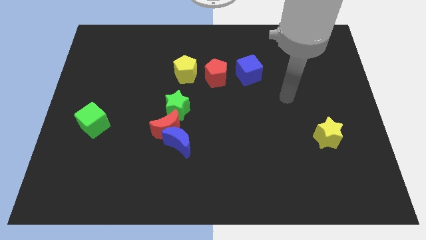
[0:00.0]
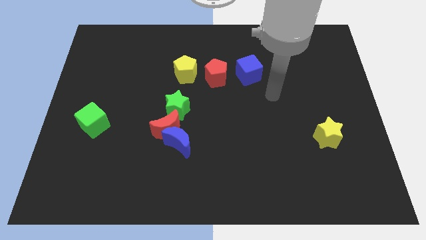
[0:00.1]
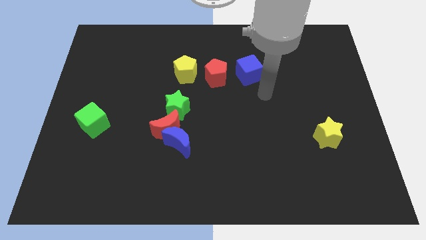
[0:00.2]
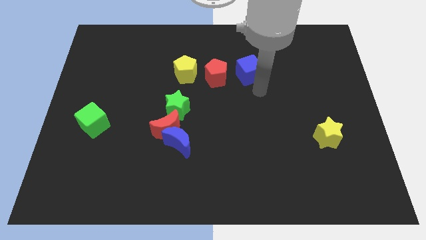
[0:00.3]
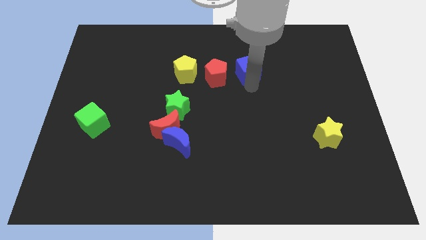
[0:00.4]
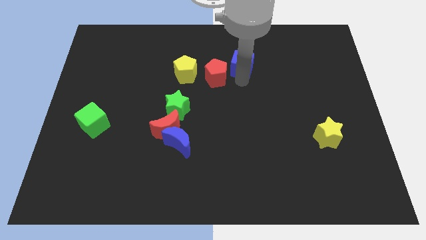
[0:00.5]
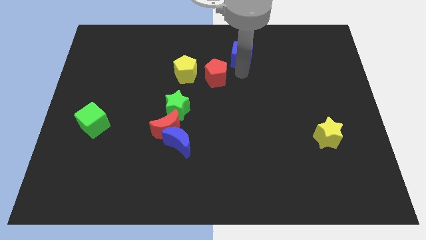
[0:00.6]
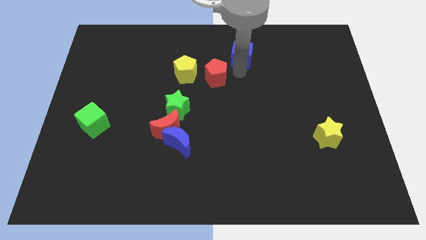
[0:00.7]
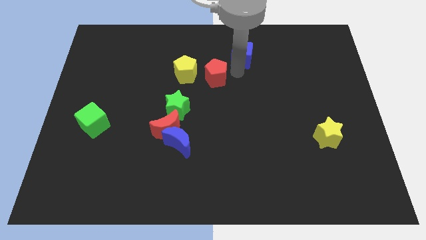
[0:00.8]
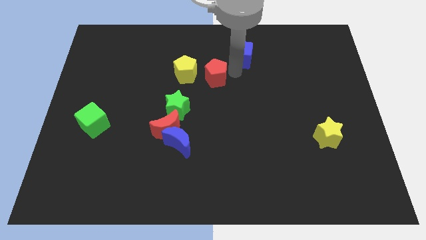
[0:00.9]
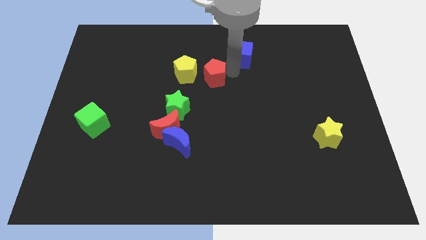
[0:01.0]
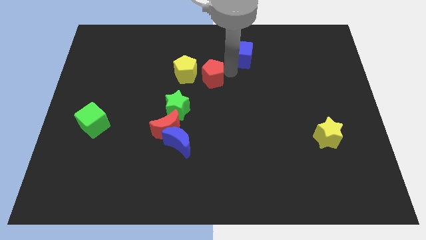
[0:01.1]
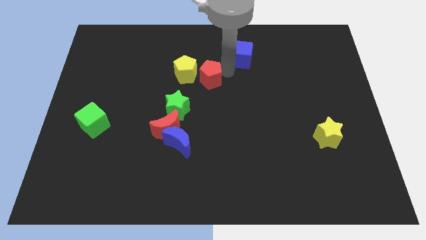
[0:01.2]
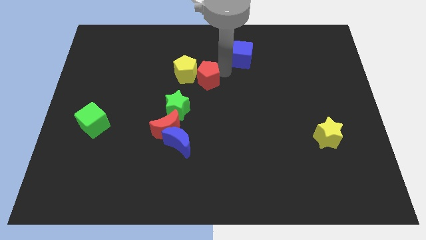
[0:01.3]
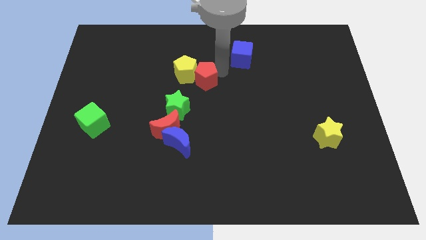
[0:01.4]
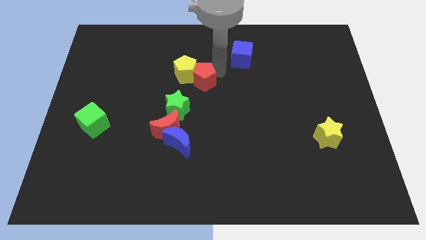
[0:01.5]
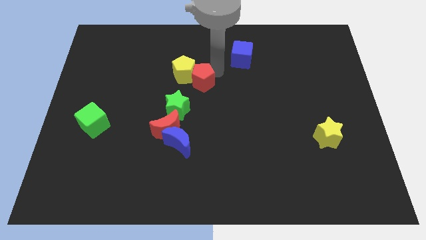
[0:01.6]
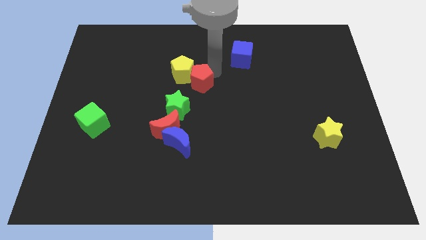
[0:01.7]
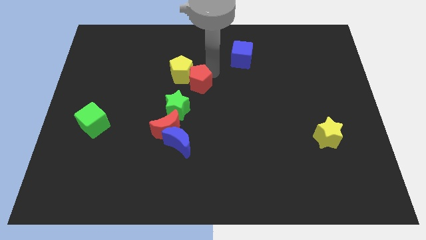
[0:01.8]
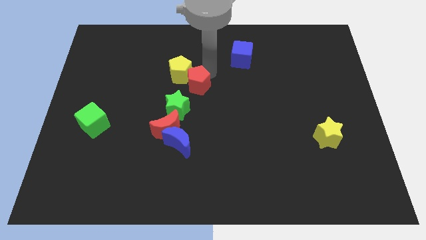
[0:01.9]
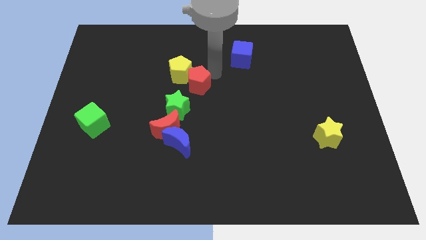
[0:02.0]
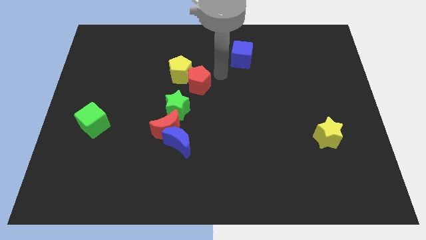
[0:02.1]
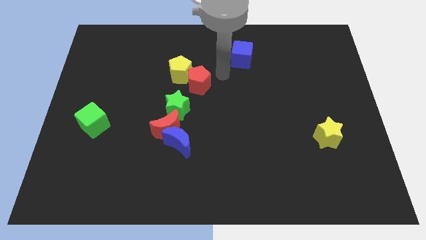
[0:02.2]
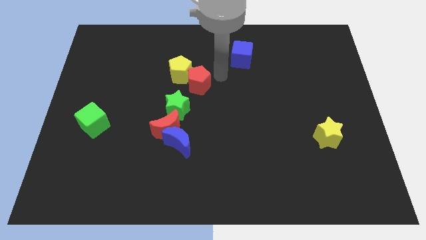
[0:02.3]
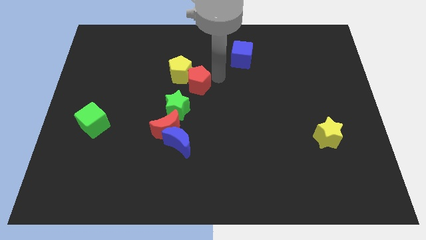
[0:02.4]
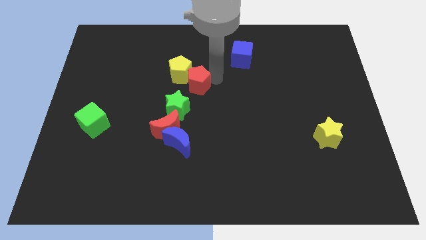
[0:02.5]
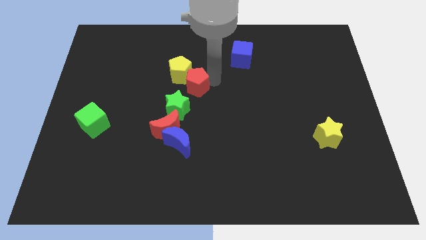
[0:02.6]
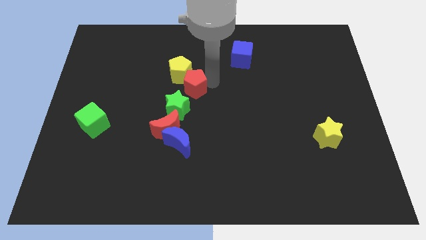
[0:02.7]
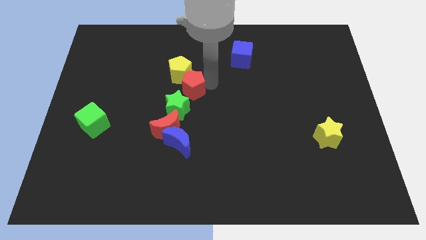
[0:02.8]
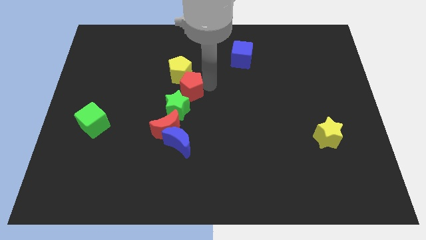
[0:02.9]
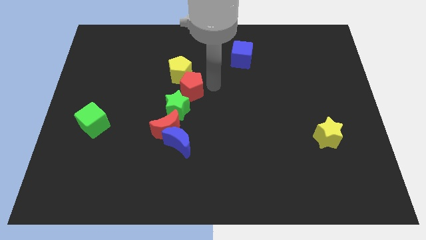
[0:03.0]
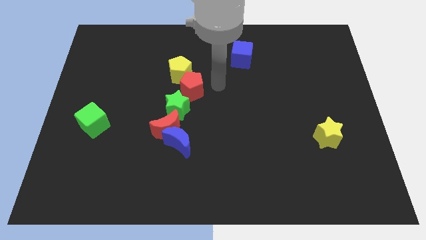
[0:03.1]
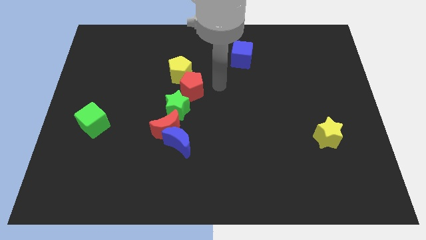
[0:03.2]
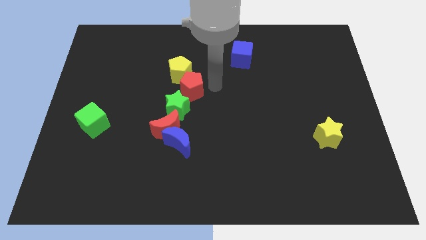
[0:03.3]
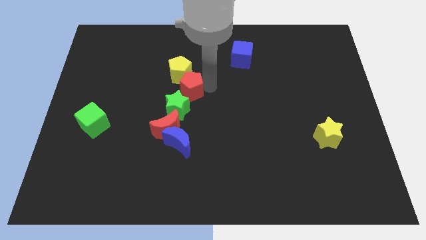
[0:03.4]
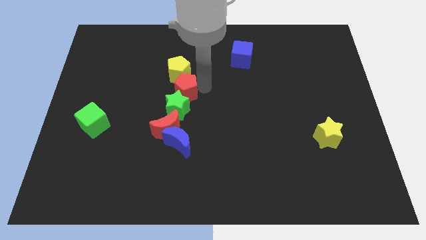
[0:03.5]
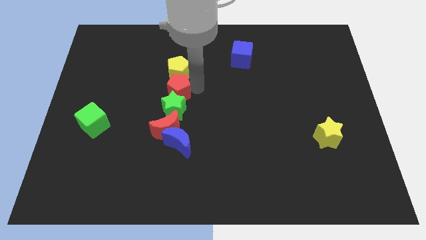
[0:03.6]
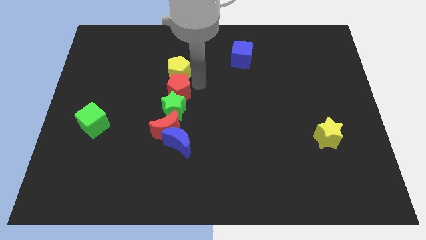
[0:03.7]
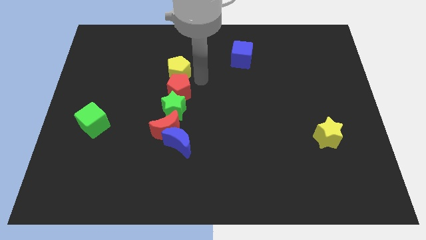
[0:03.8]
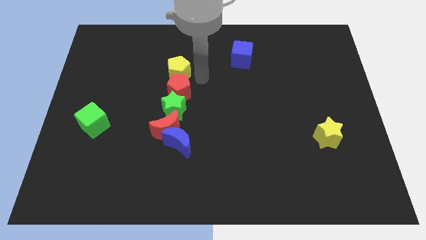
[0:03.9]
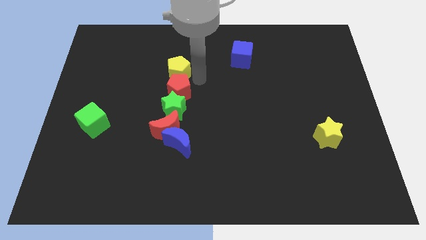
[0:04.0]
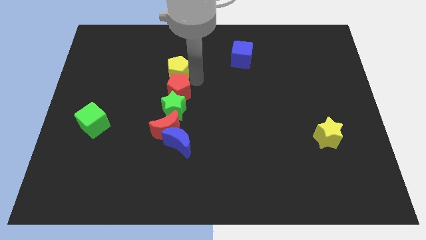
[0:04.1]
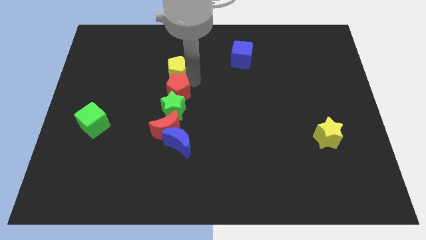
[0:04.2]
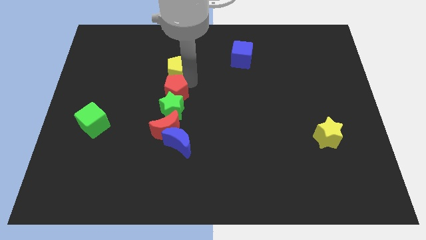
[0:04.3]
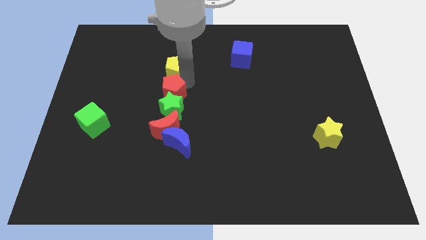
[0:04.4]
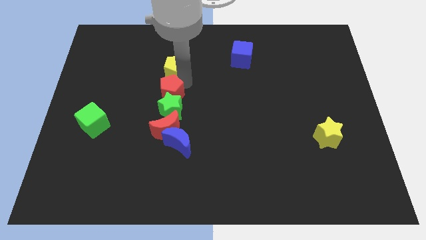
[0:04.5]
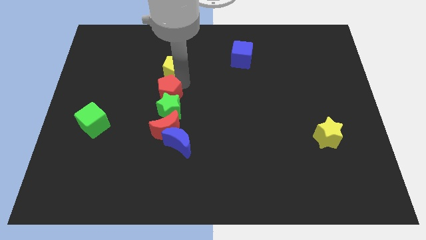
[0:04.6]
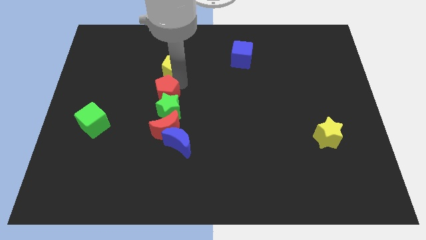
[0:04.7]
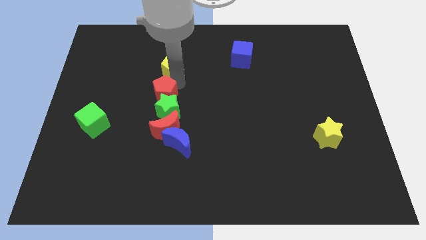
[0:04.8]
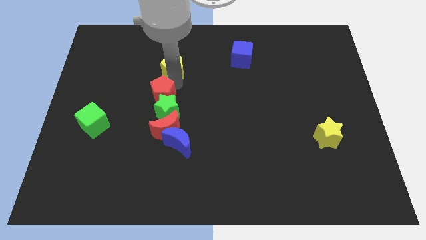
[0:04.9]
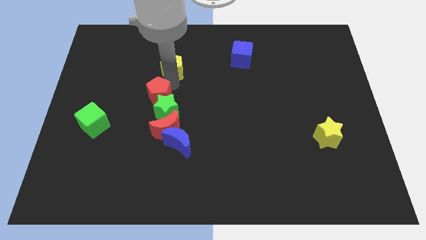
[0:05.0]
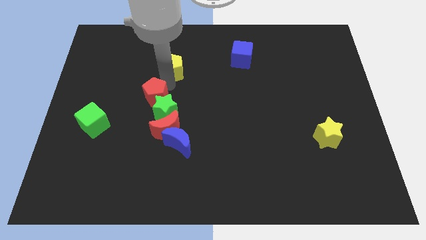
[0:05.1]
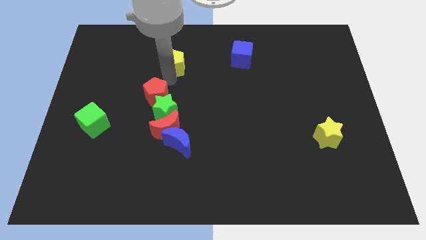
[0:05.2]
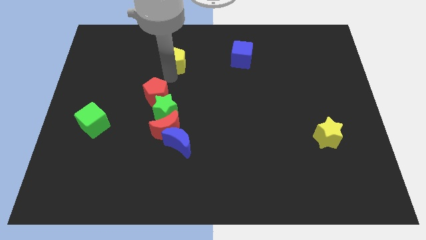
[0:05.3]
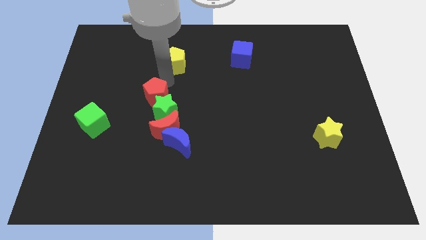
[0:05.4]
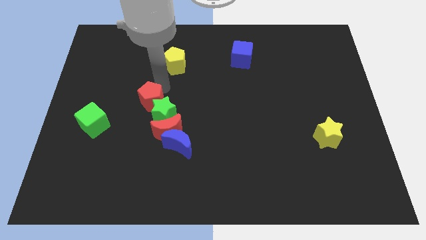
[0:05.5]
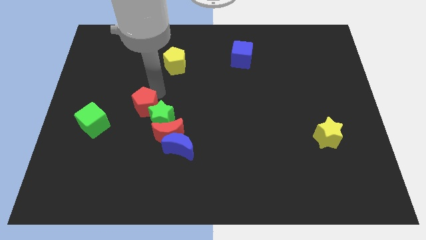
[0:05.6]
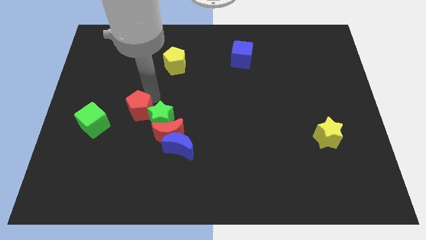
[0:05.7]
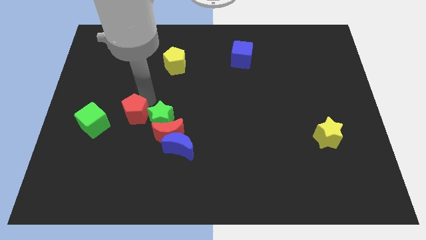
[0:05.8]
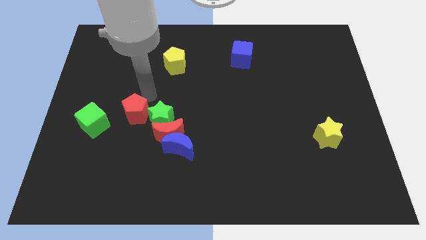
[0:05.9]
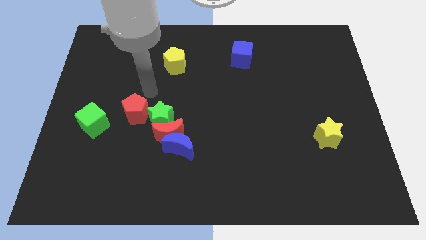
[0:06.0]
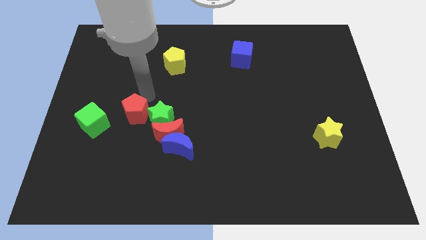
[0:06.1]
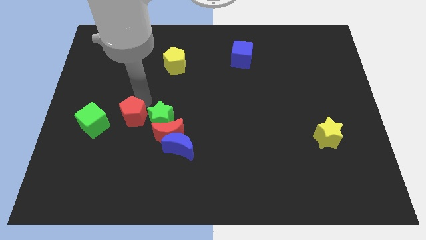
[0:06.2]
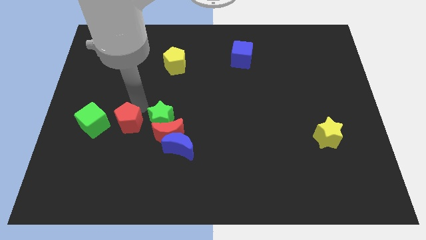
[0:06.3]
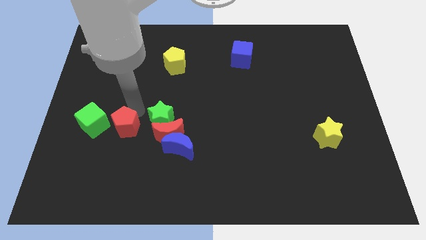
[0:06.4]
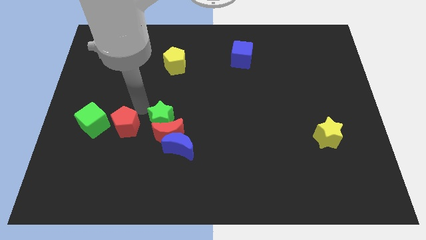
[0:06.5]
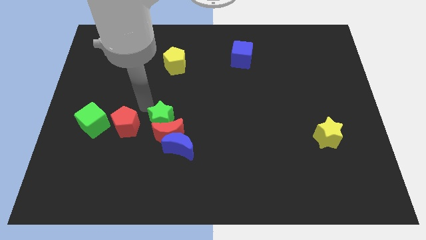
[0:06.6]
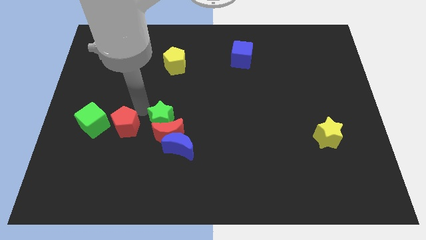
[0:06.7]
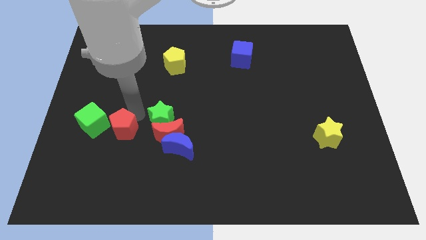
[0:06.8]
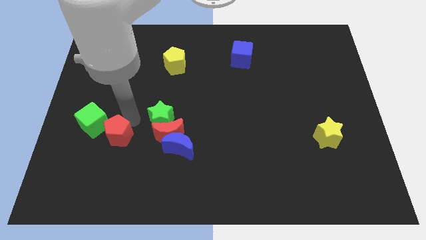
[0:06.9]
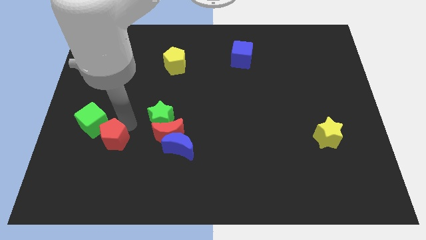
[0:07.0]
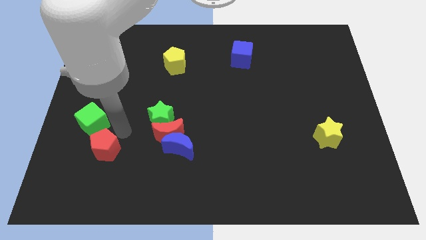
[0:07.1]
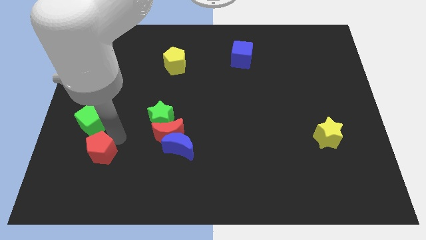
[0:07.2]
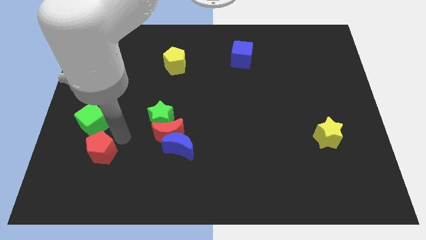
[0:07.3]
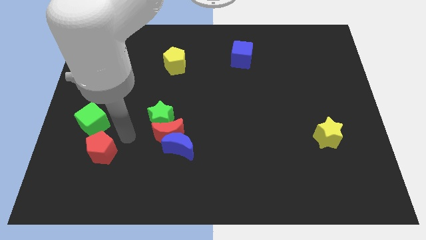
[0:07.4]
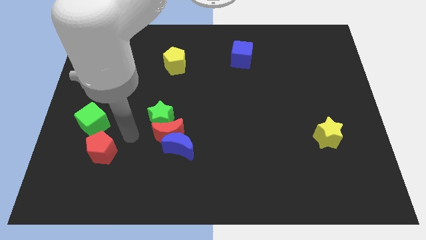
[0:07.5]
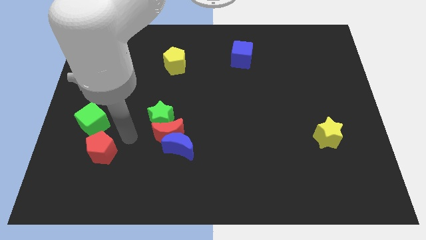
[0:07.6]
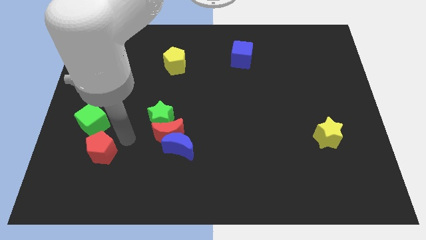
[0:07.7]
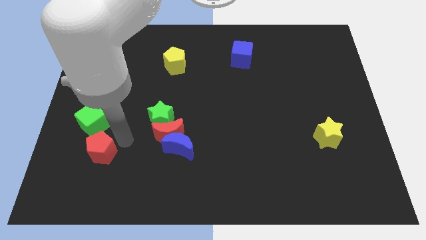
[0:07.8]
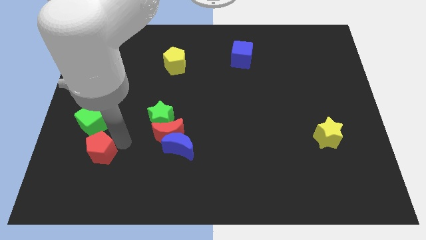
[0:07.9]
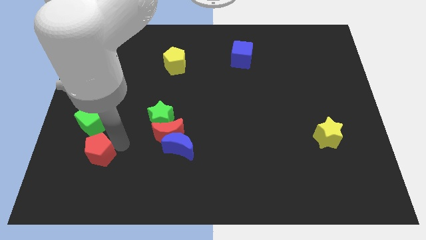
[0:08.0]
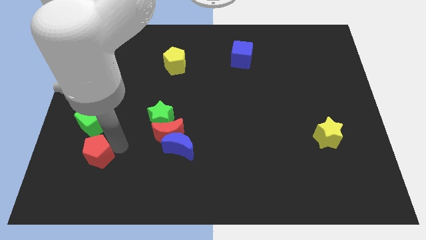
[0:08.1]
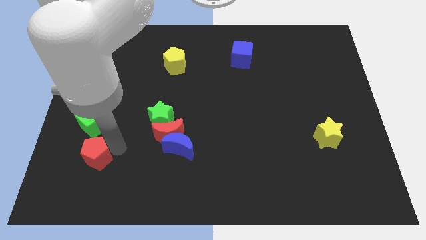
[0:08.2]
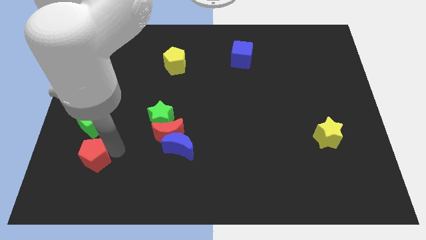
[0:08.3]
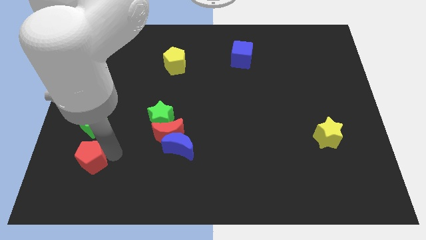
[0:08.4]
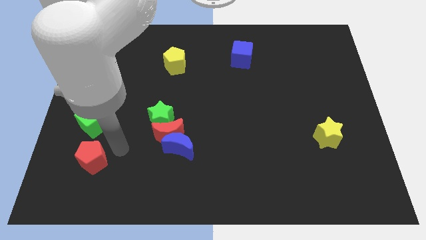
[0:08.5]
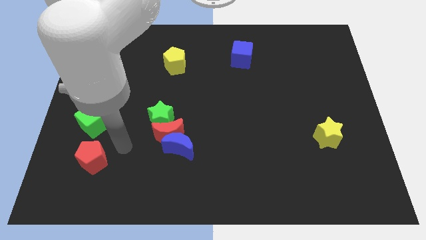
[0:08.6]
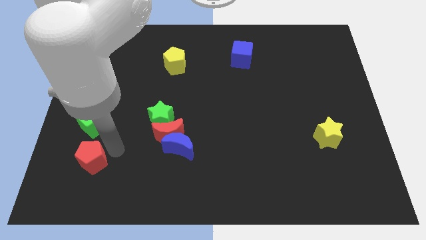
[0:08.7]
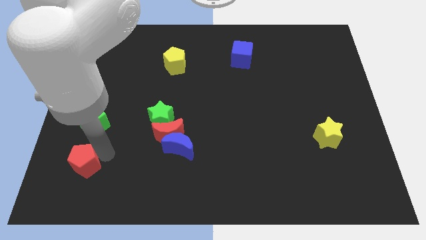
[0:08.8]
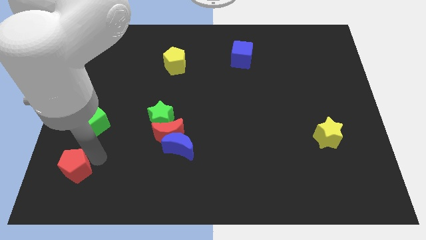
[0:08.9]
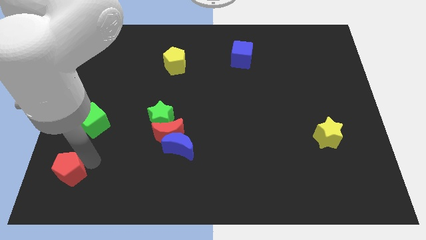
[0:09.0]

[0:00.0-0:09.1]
put the red pentagon to the lower left corner
